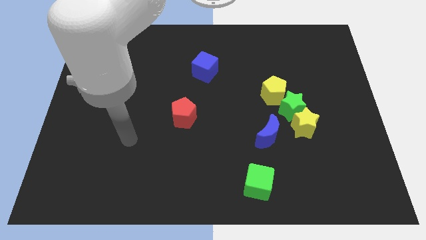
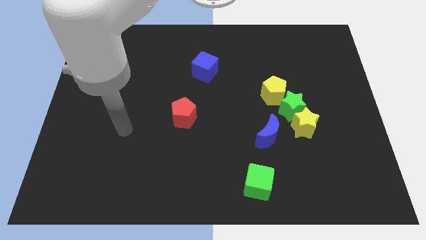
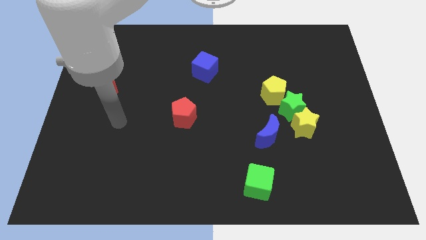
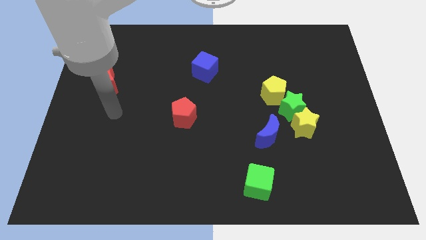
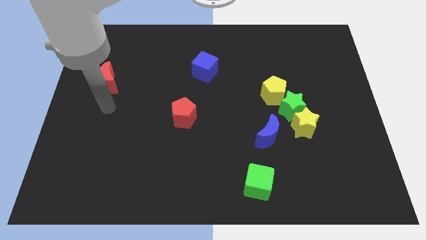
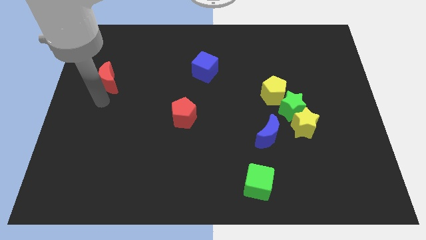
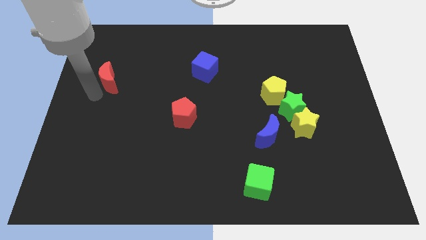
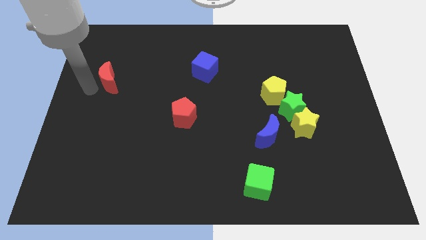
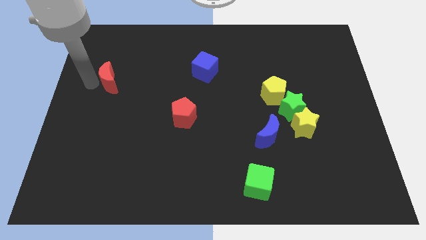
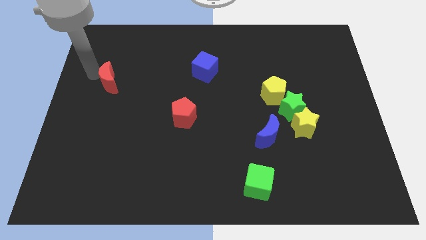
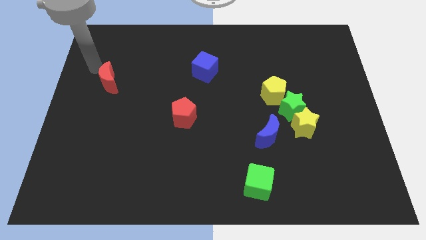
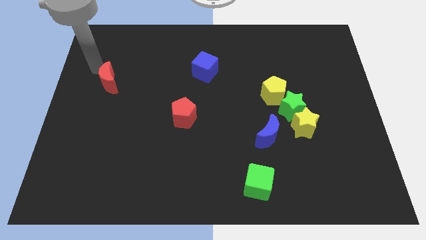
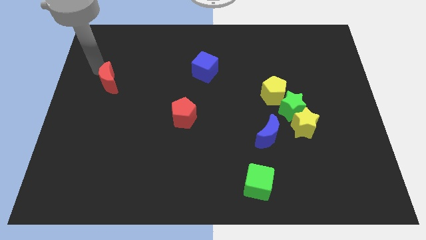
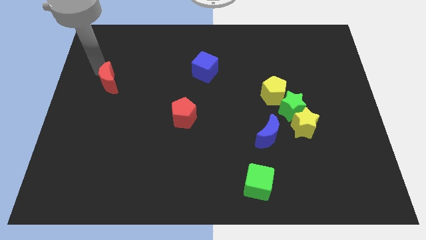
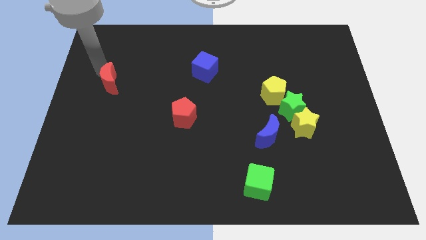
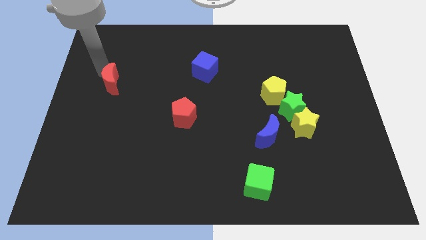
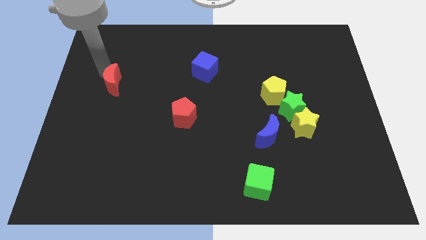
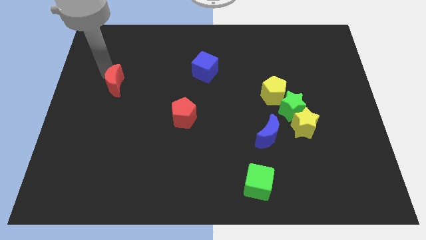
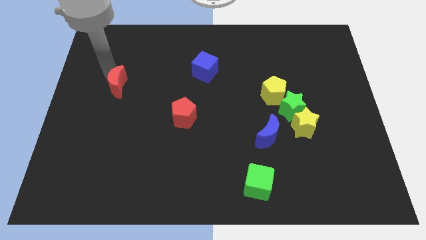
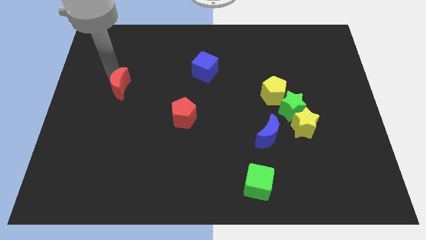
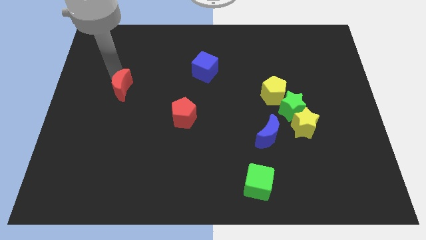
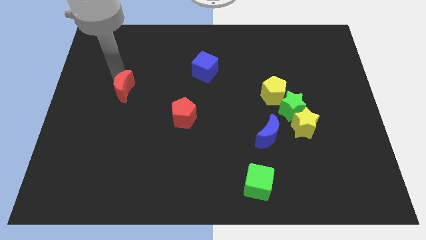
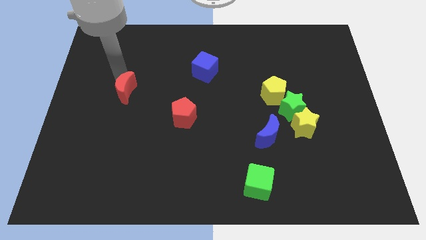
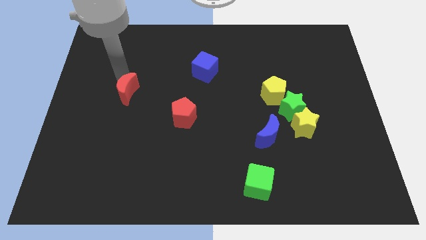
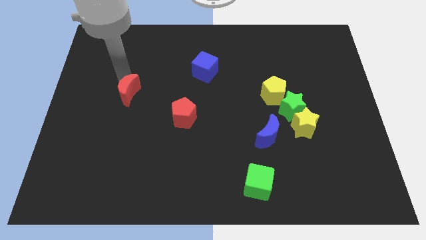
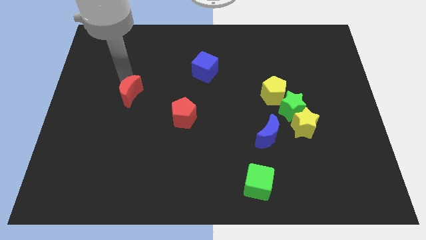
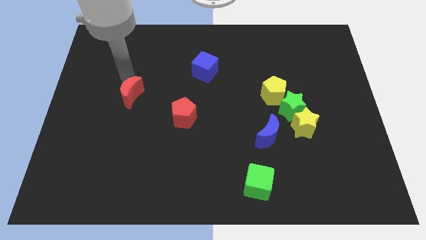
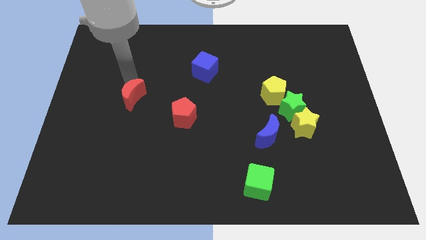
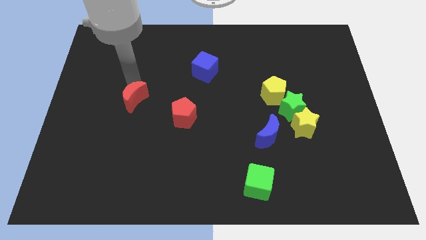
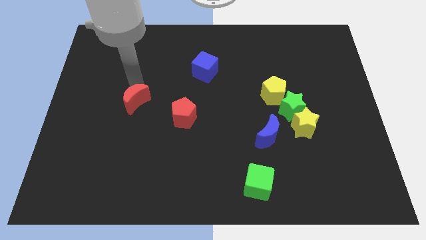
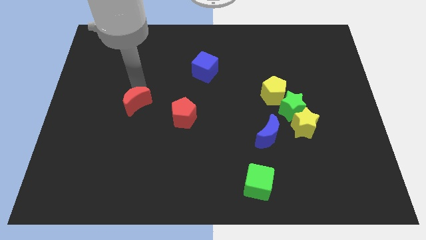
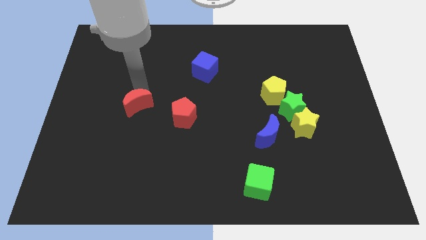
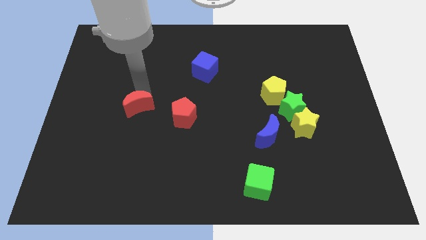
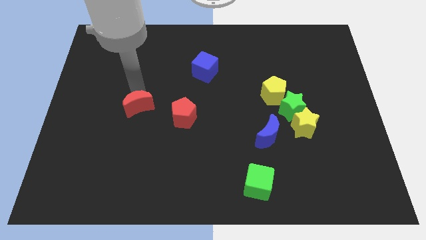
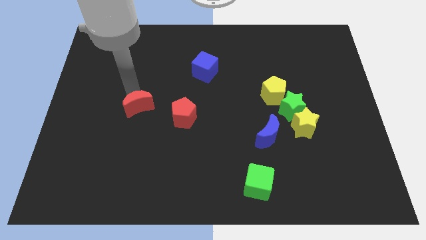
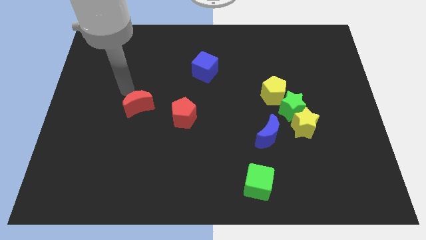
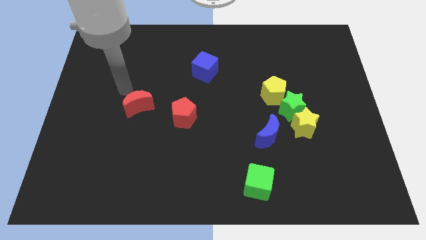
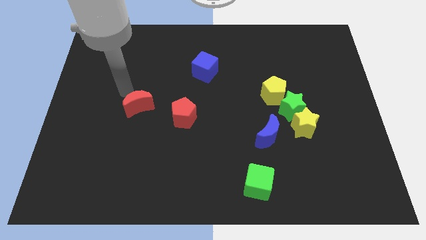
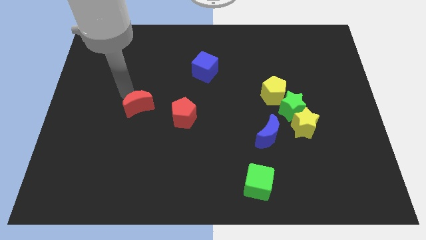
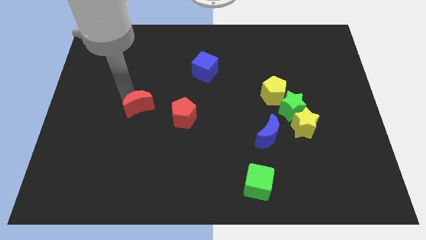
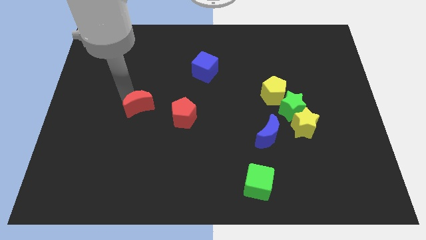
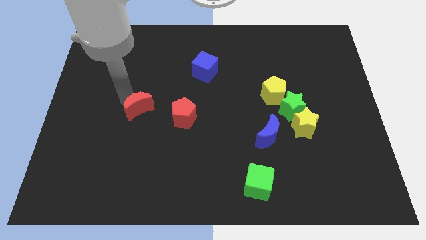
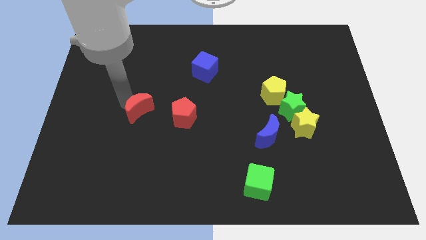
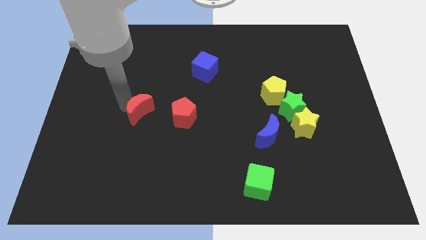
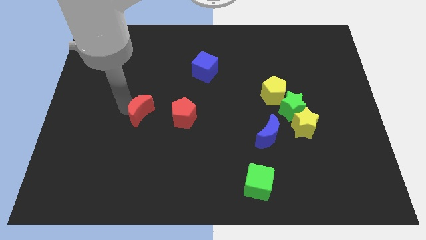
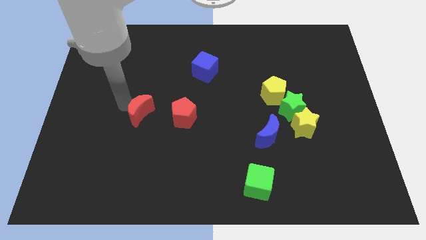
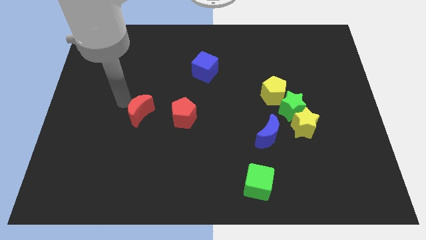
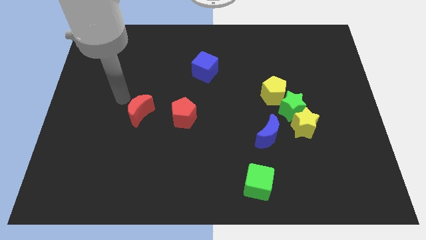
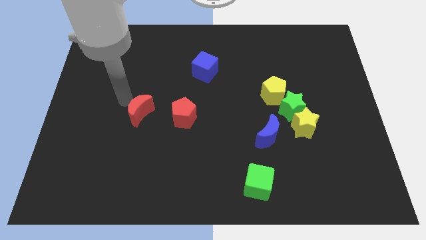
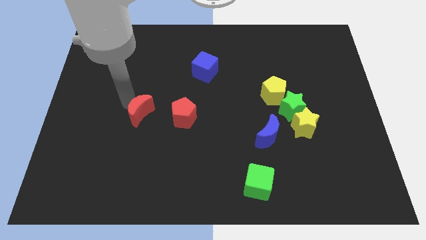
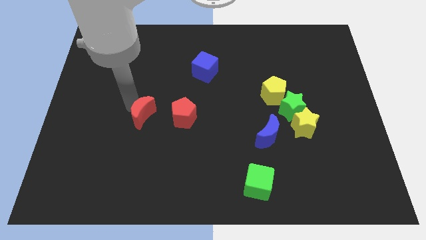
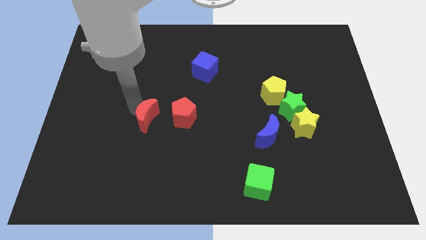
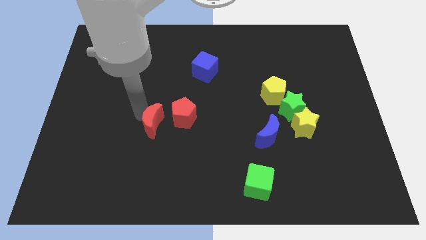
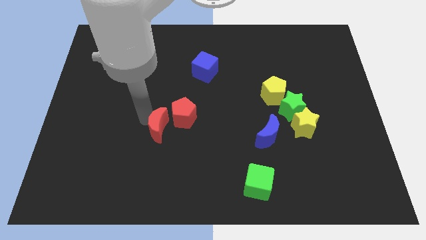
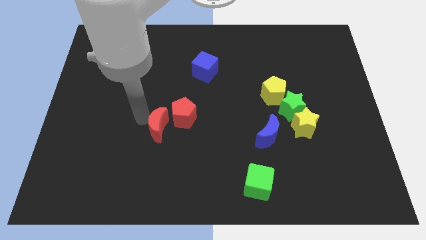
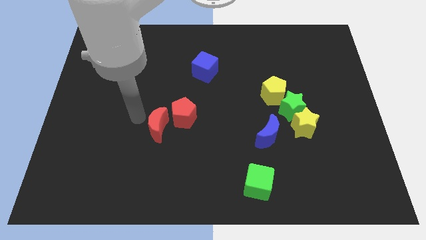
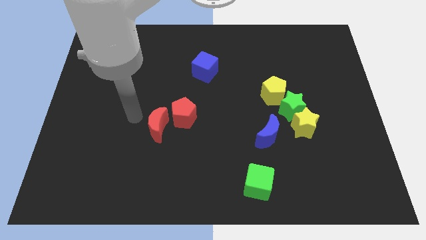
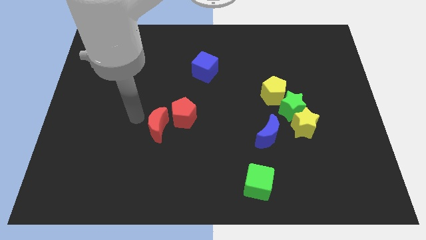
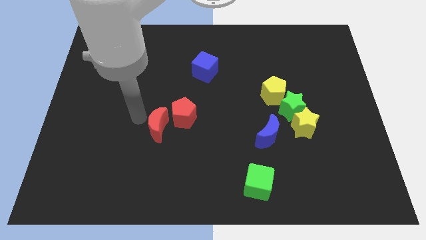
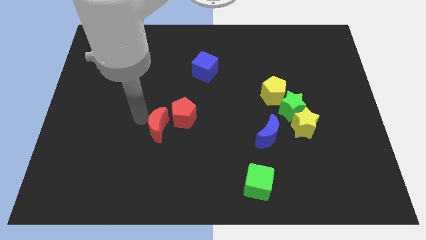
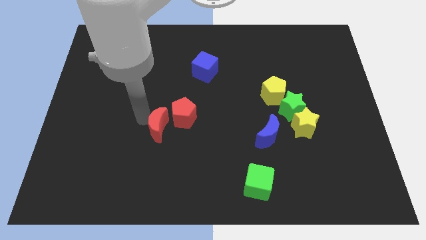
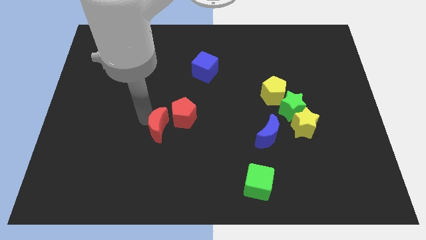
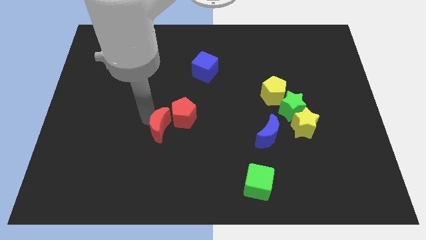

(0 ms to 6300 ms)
push the red moon downwards and then right

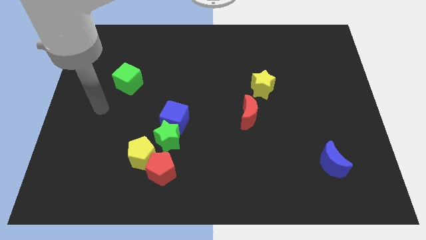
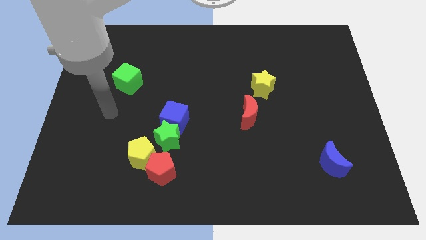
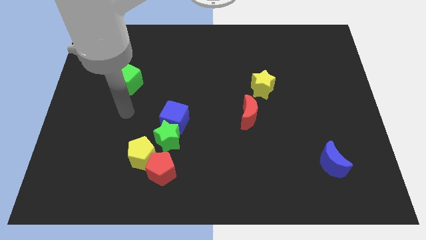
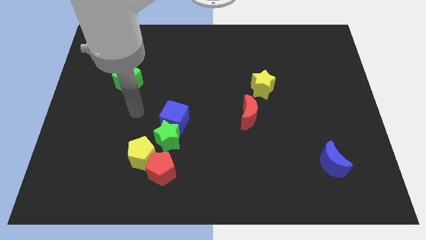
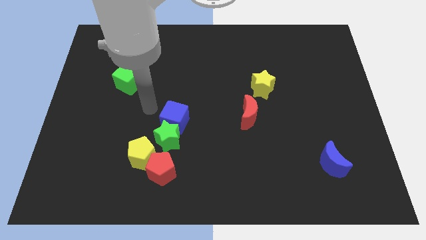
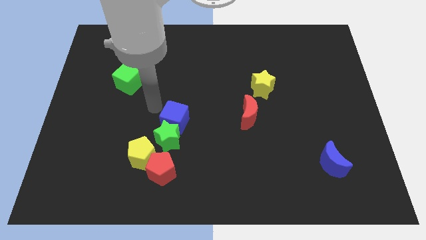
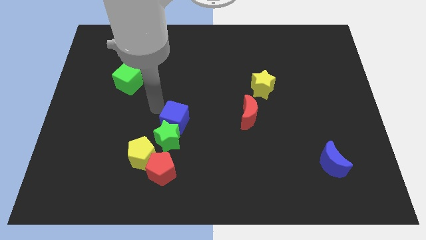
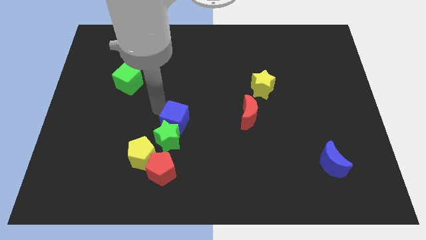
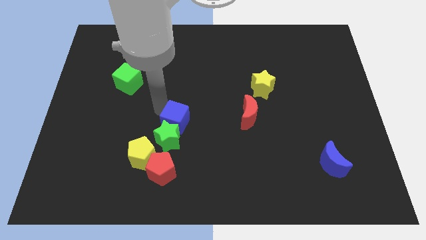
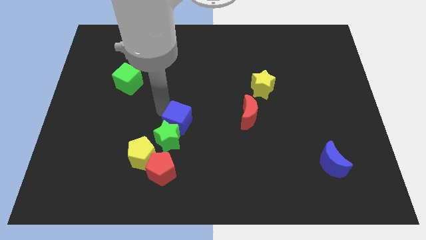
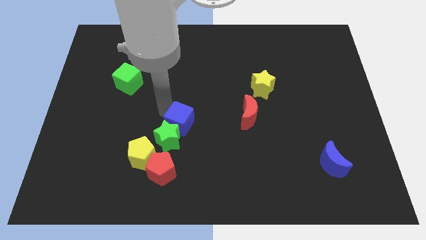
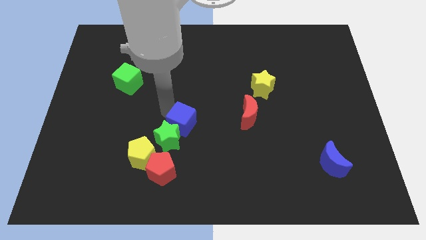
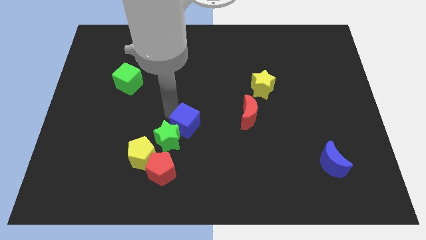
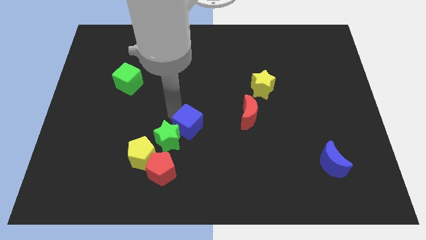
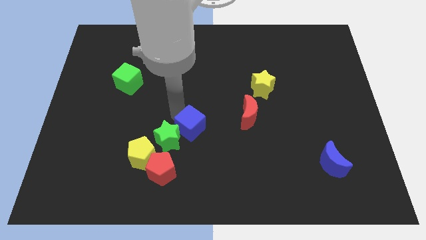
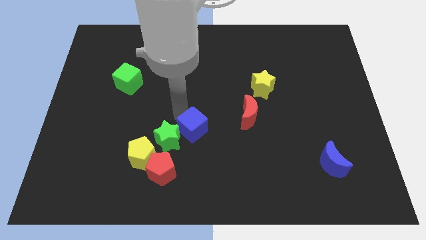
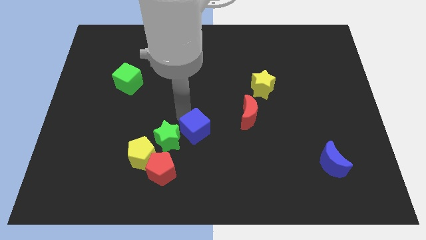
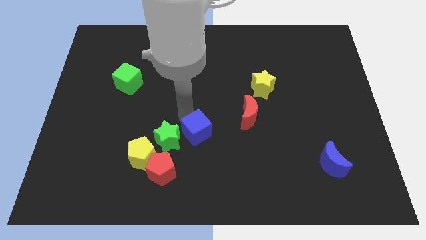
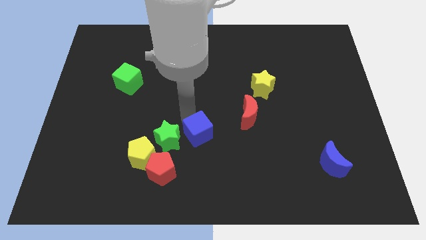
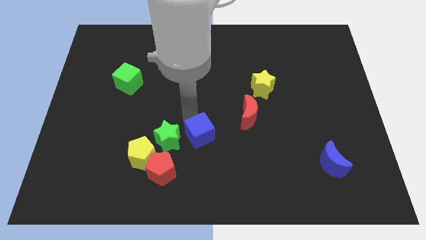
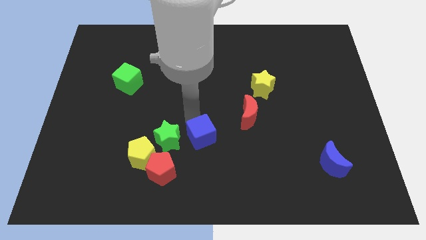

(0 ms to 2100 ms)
slightly slide the blue cube down and right
